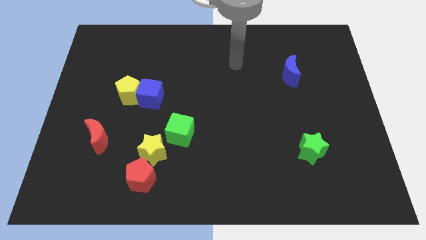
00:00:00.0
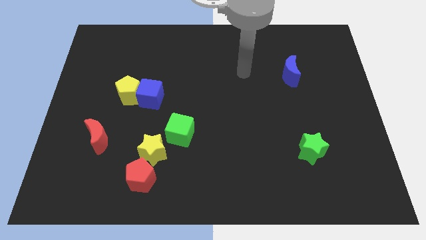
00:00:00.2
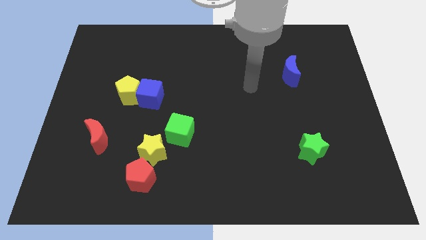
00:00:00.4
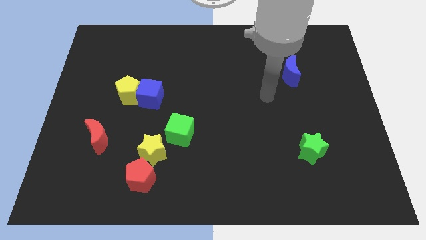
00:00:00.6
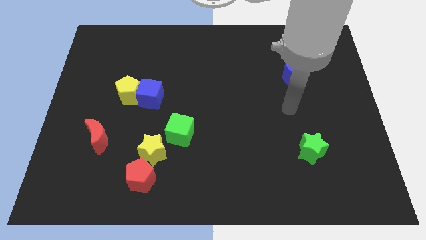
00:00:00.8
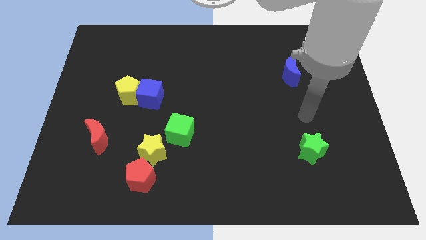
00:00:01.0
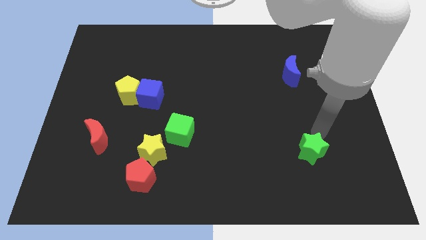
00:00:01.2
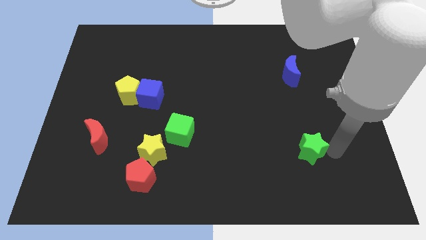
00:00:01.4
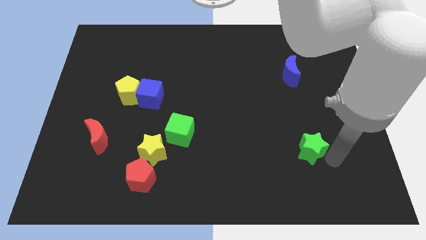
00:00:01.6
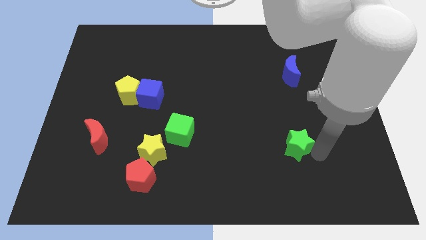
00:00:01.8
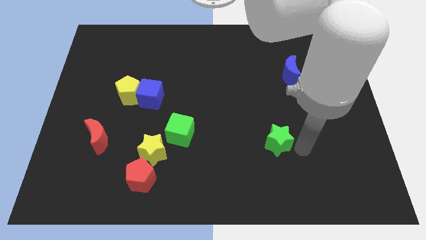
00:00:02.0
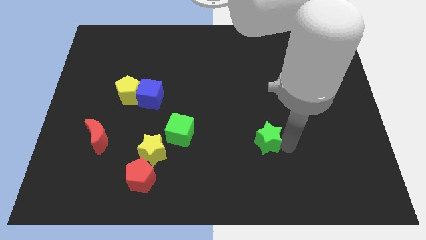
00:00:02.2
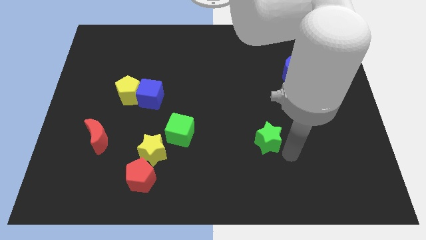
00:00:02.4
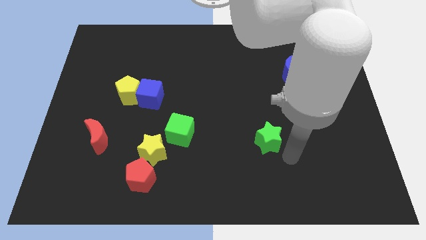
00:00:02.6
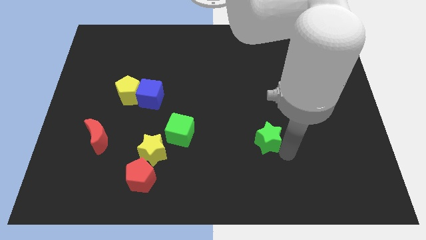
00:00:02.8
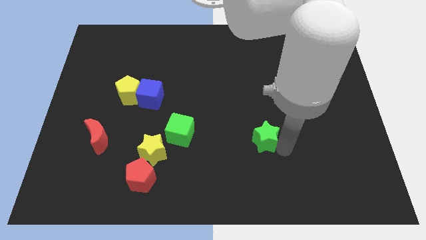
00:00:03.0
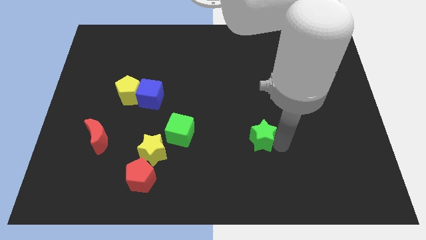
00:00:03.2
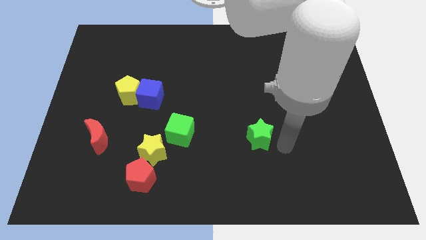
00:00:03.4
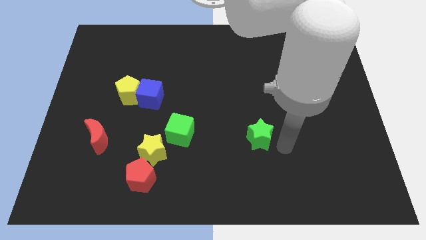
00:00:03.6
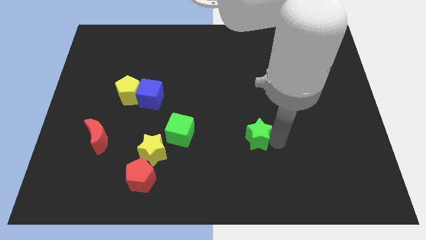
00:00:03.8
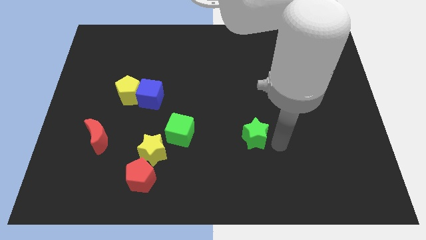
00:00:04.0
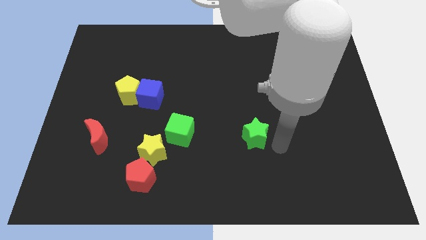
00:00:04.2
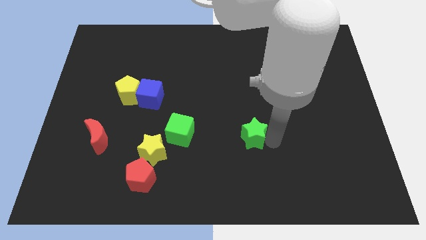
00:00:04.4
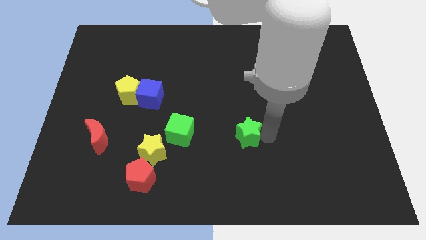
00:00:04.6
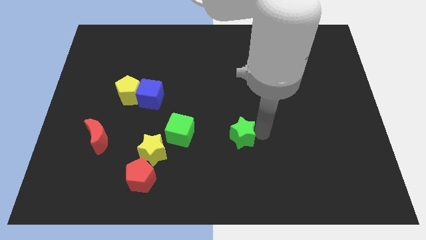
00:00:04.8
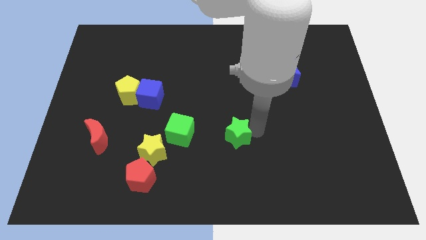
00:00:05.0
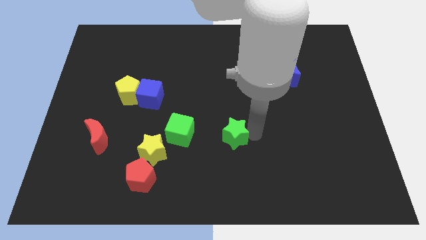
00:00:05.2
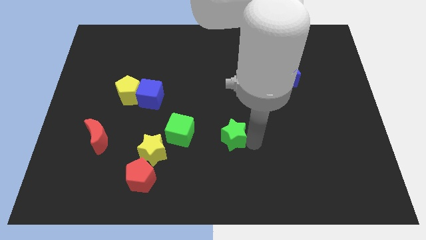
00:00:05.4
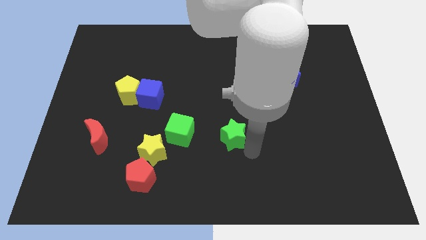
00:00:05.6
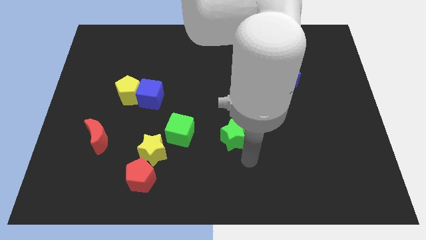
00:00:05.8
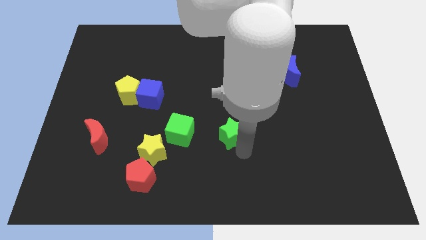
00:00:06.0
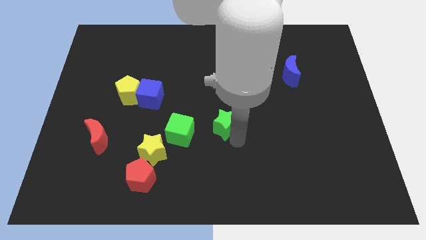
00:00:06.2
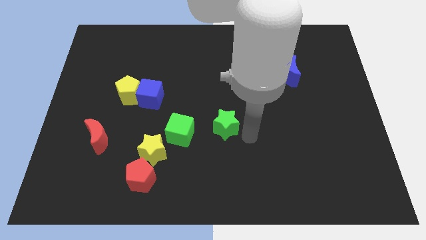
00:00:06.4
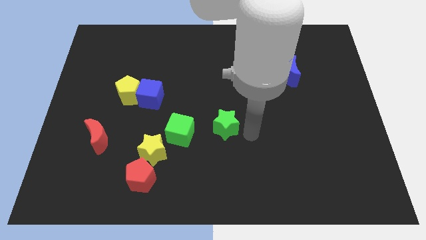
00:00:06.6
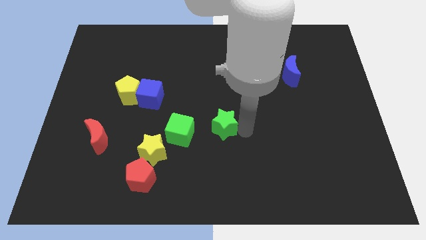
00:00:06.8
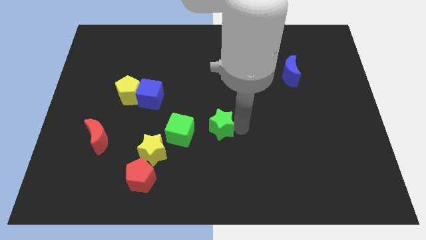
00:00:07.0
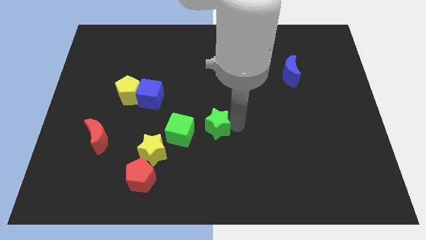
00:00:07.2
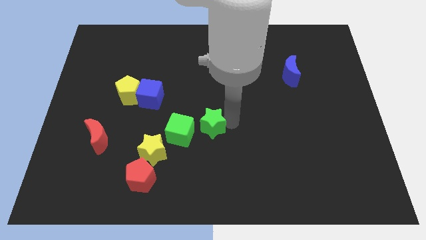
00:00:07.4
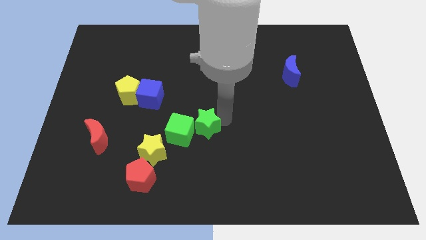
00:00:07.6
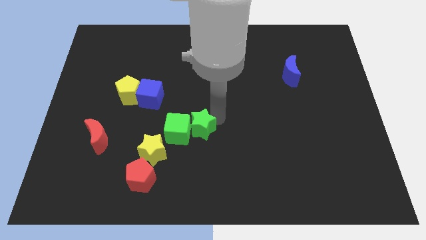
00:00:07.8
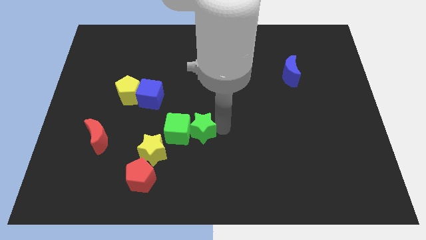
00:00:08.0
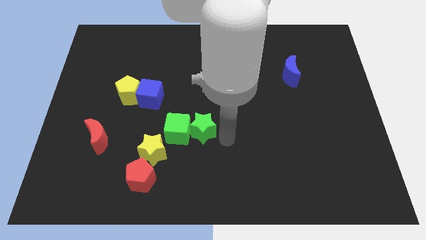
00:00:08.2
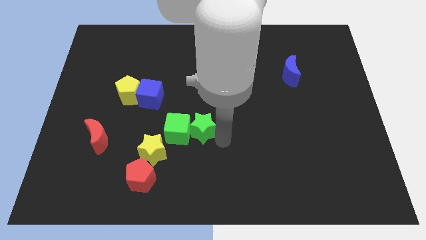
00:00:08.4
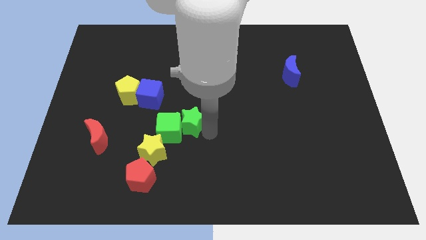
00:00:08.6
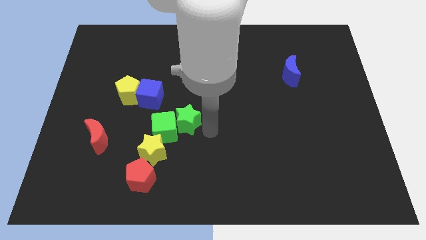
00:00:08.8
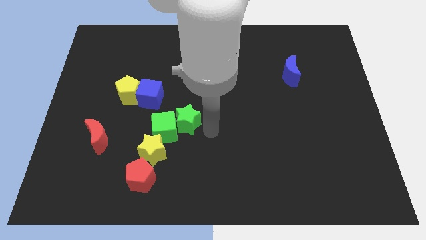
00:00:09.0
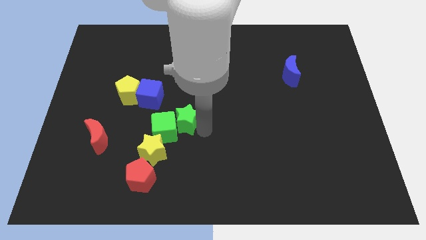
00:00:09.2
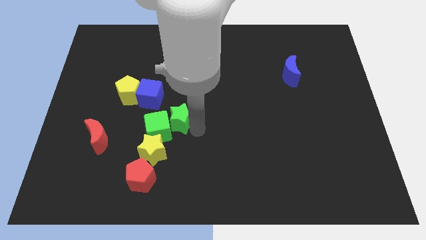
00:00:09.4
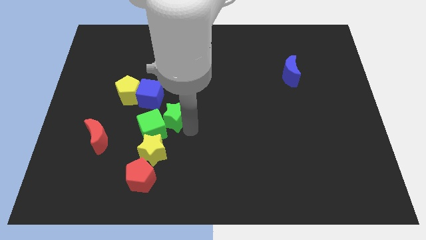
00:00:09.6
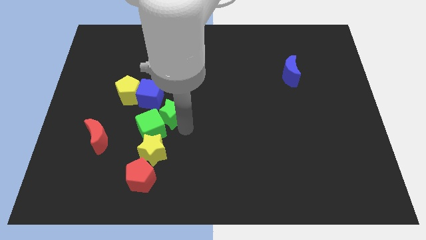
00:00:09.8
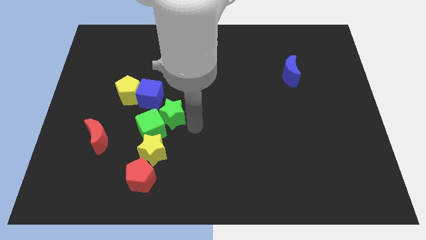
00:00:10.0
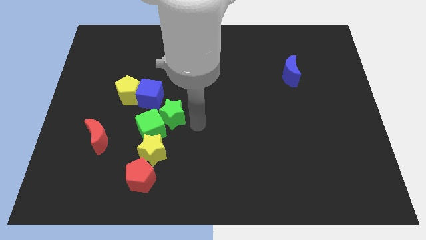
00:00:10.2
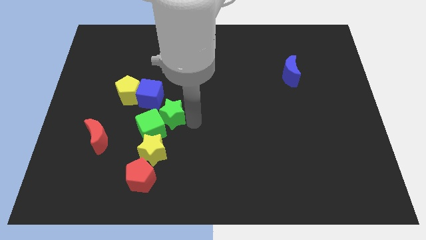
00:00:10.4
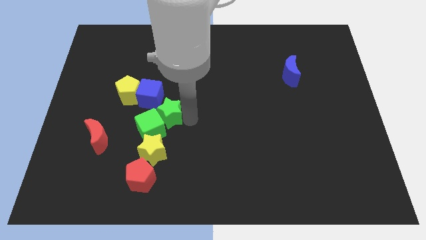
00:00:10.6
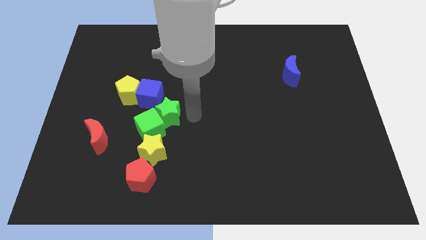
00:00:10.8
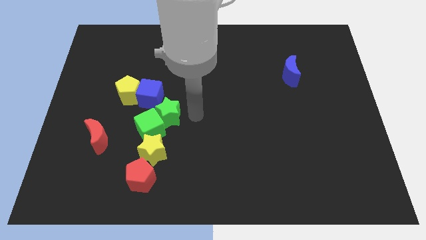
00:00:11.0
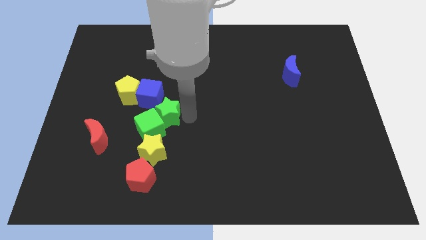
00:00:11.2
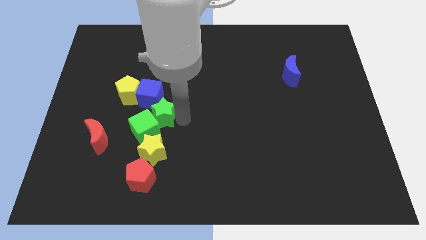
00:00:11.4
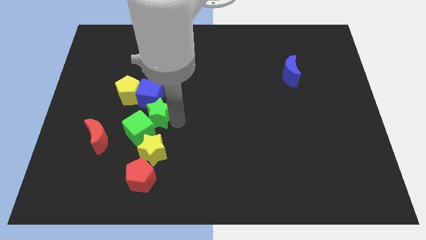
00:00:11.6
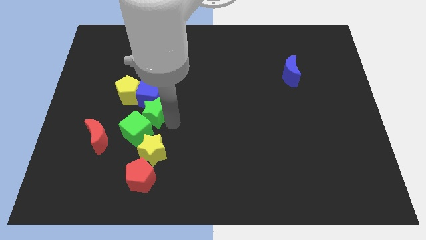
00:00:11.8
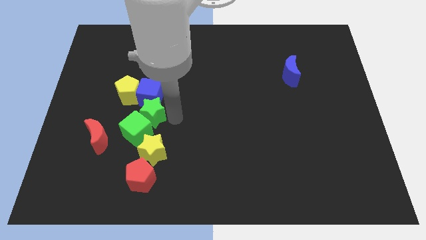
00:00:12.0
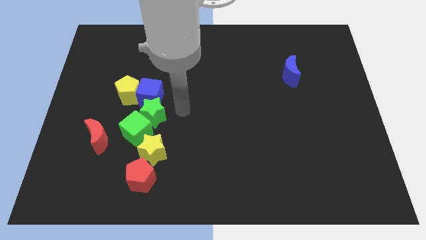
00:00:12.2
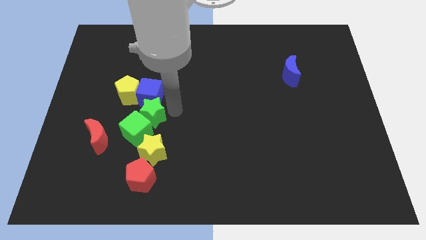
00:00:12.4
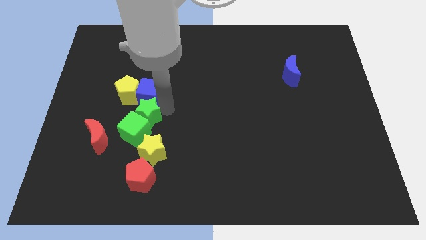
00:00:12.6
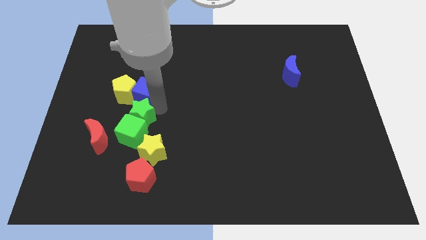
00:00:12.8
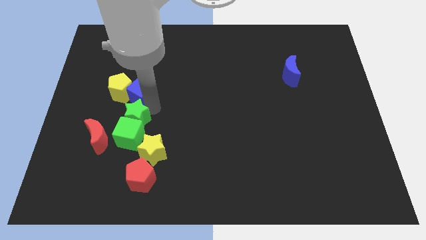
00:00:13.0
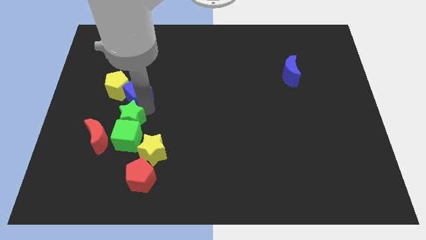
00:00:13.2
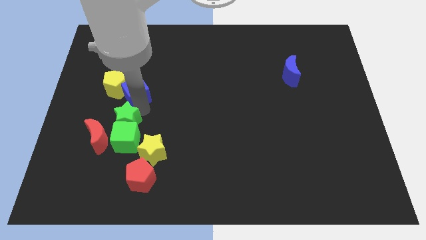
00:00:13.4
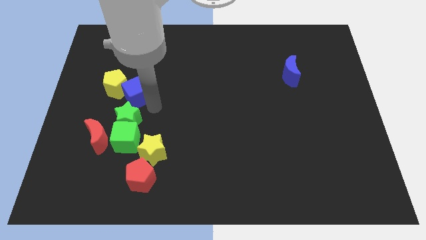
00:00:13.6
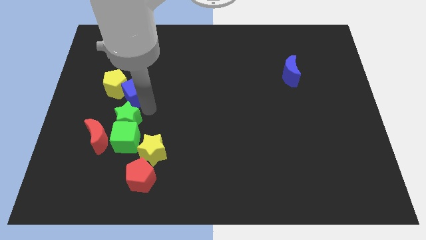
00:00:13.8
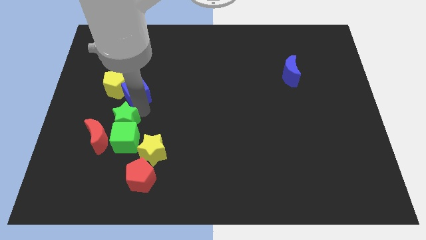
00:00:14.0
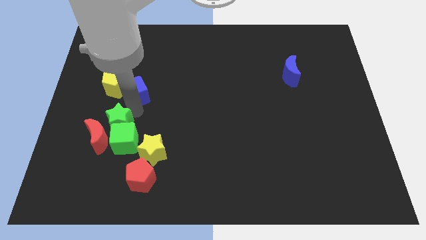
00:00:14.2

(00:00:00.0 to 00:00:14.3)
push the green star towards the red moon
